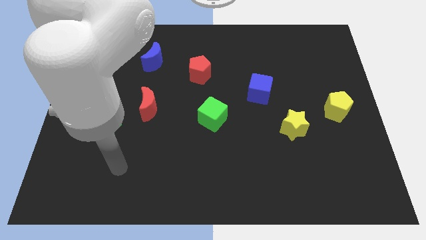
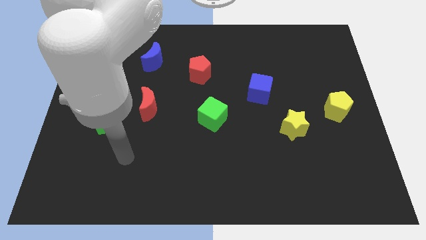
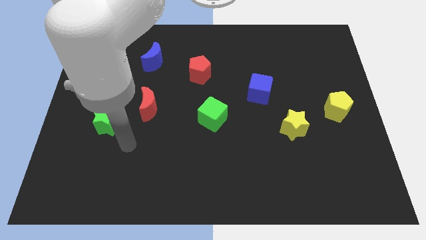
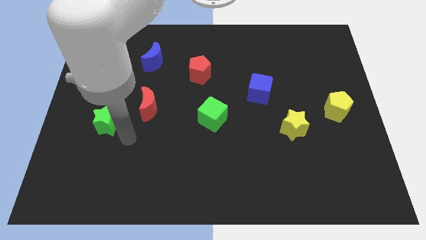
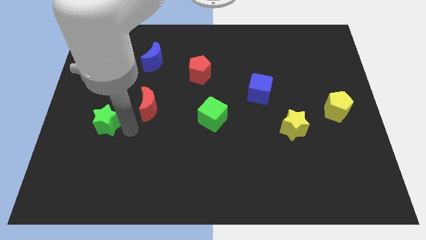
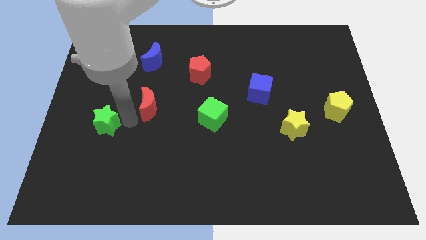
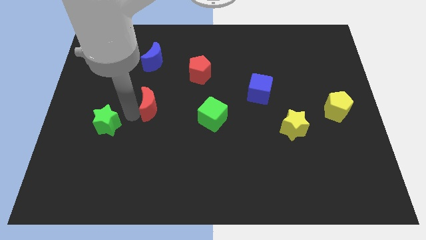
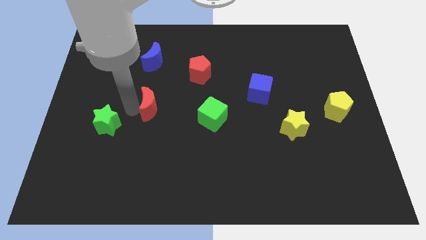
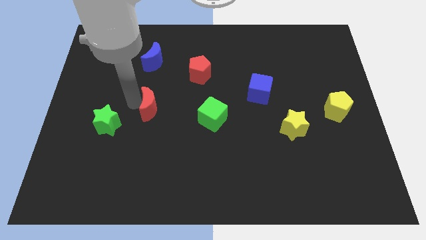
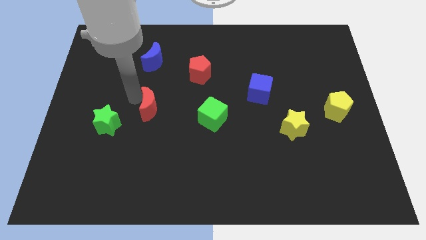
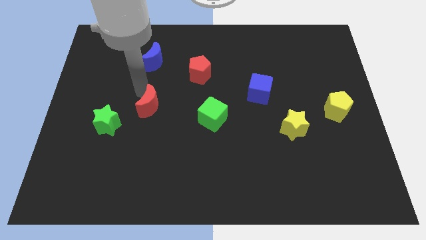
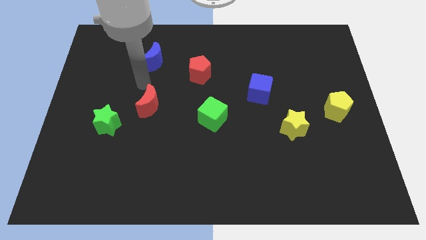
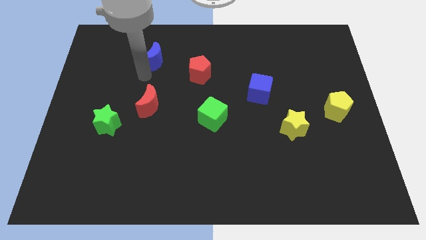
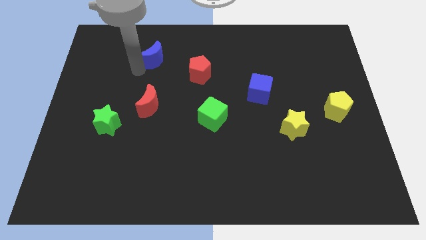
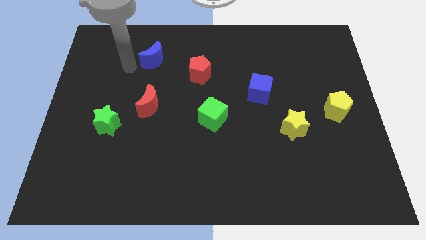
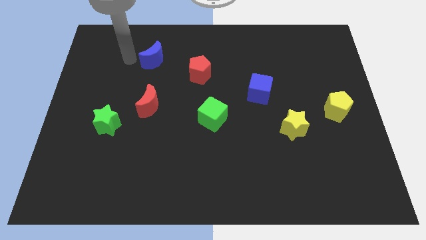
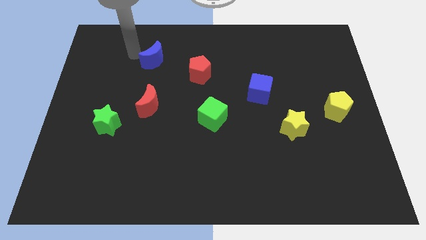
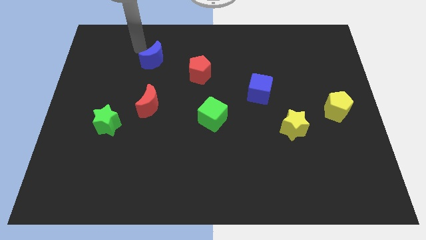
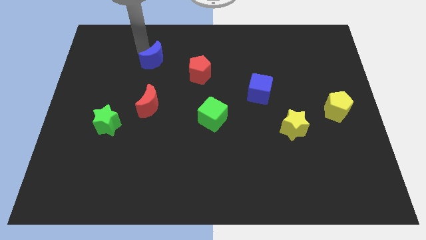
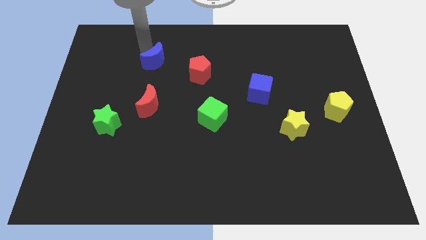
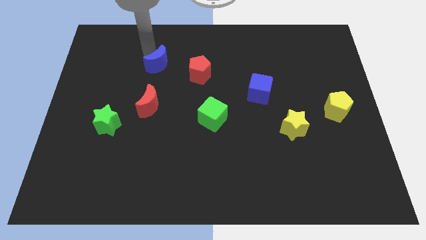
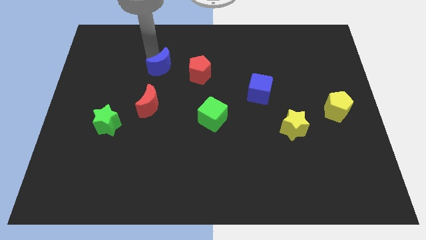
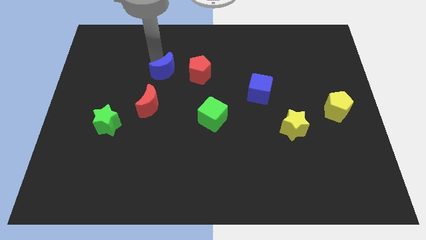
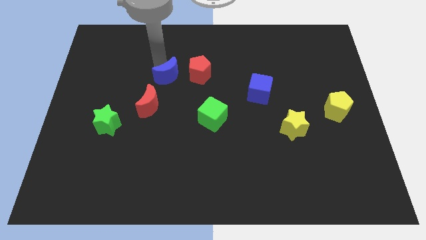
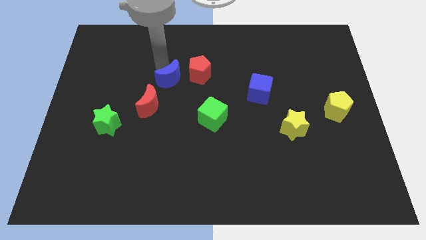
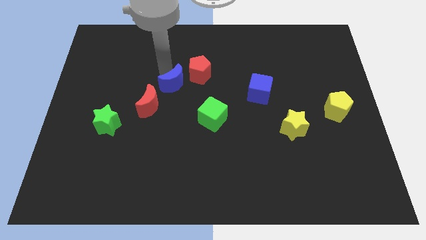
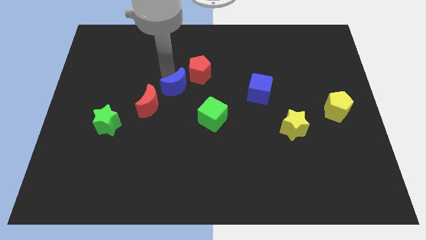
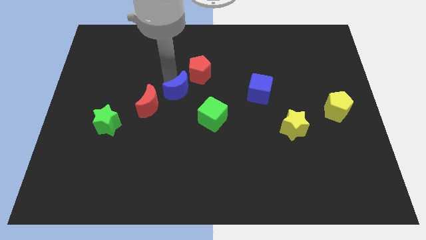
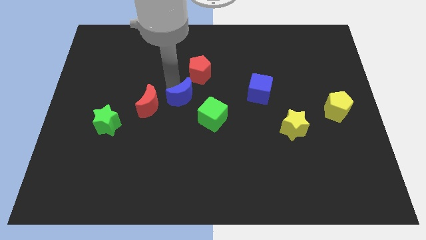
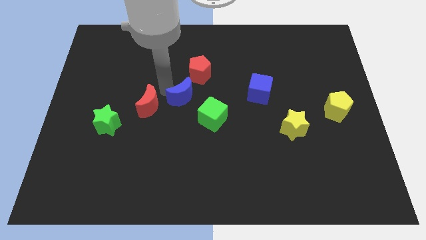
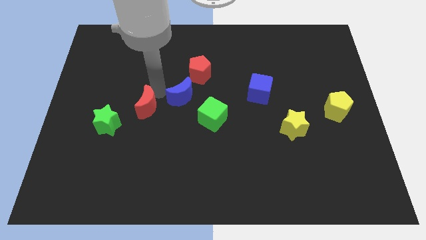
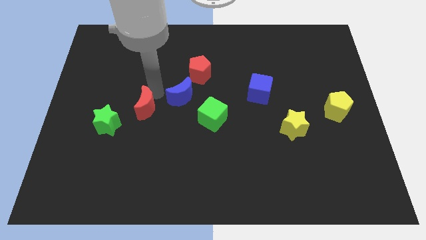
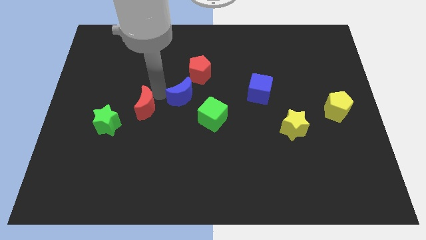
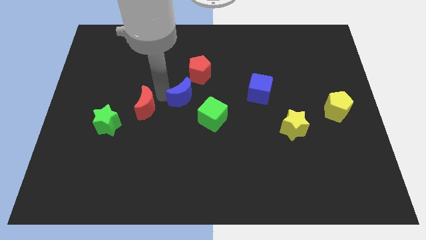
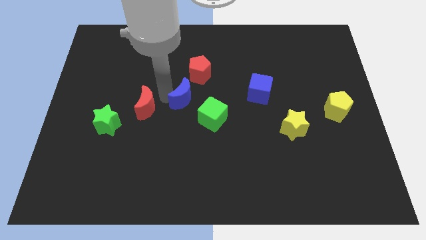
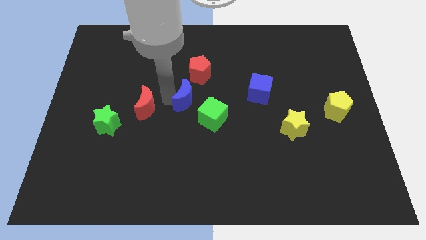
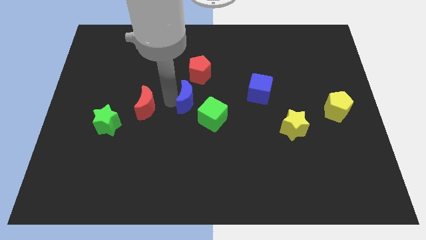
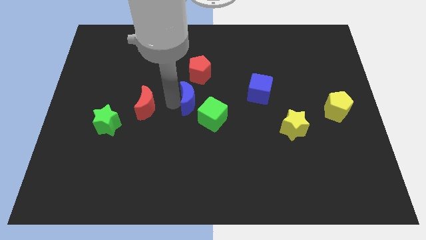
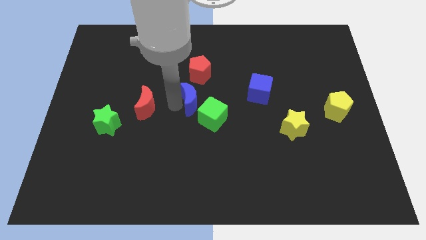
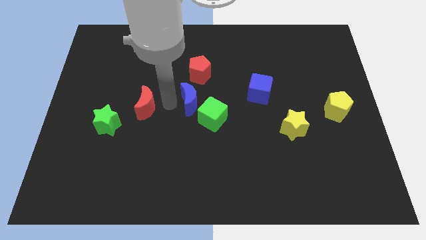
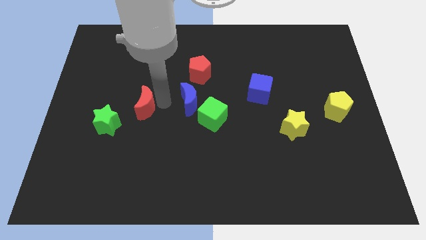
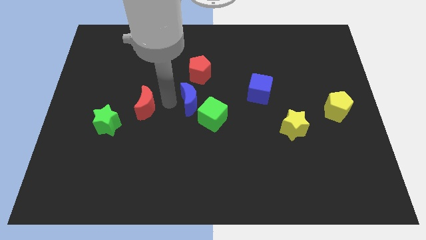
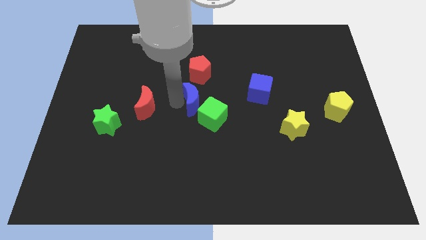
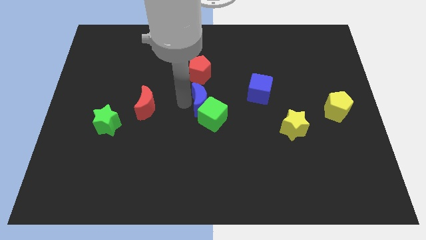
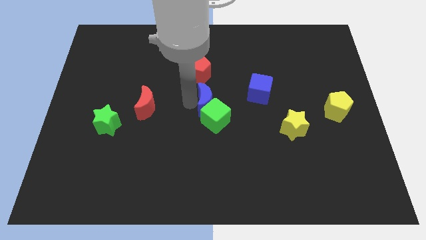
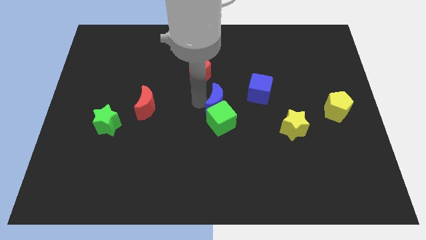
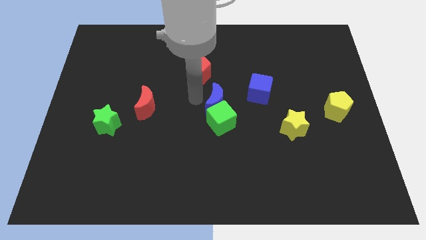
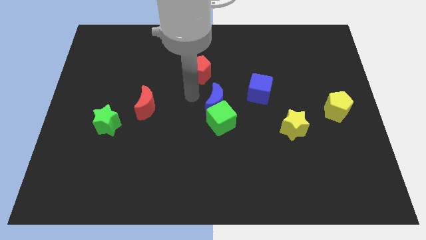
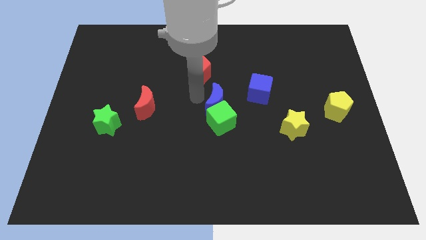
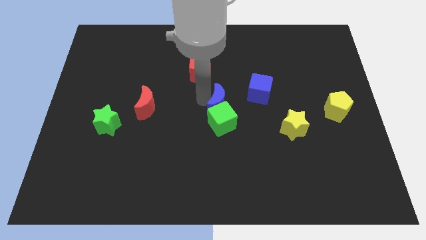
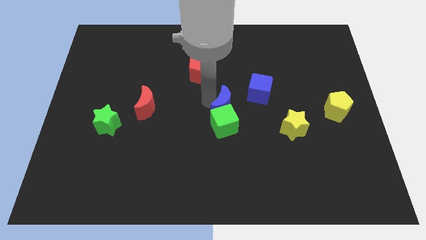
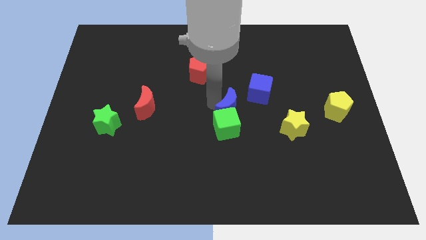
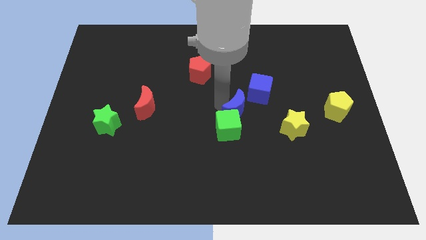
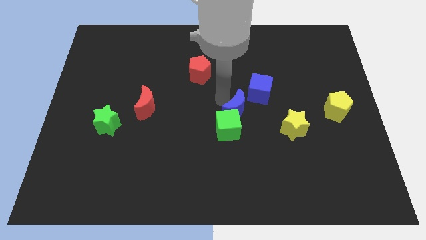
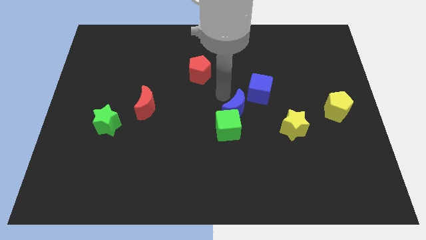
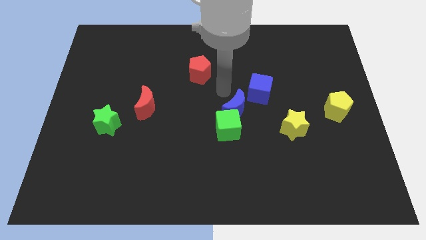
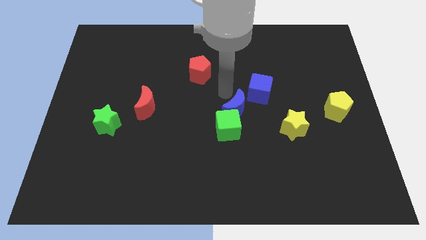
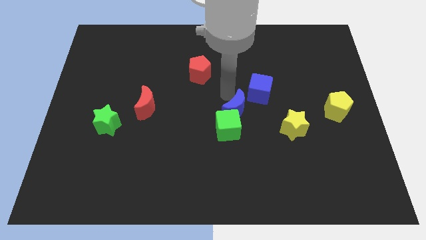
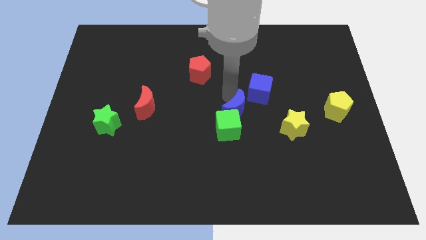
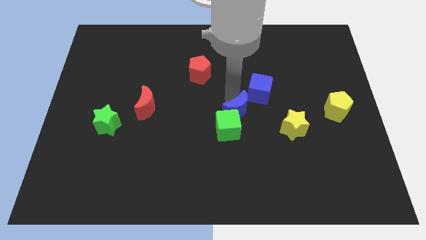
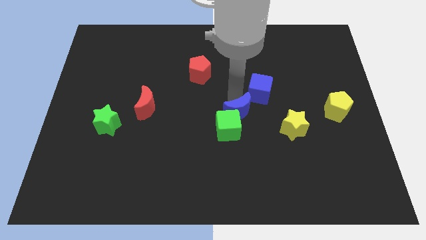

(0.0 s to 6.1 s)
slide the blue moon left of the yellow star

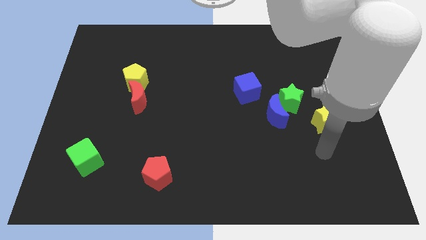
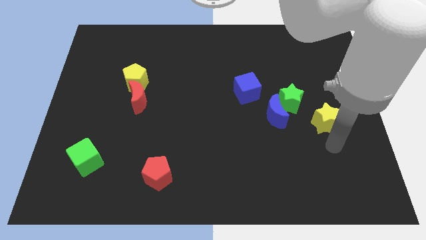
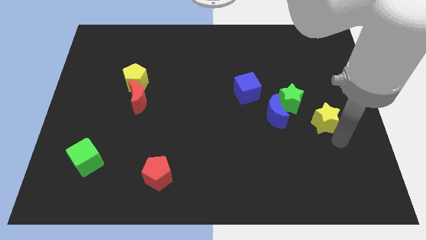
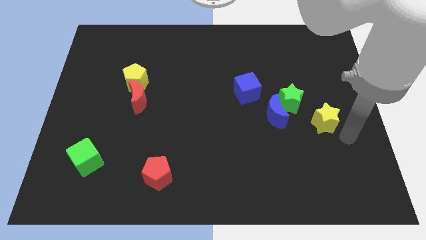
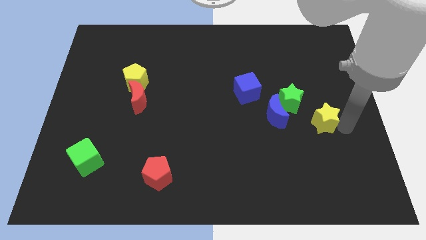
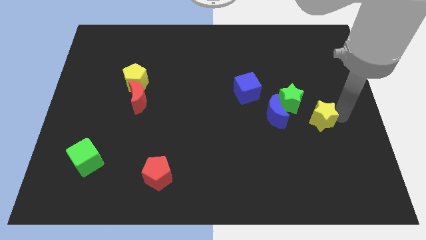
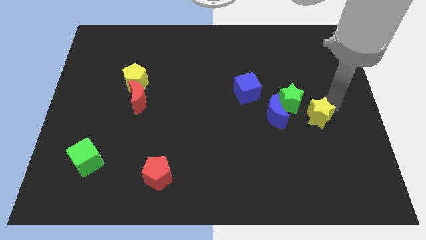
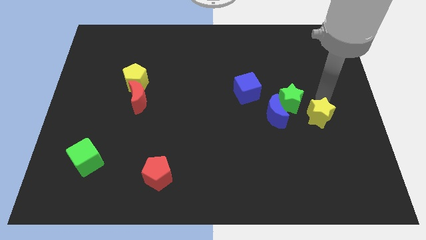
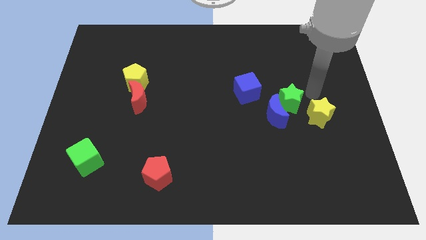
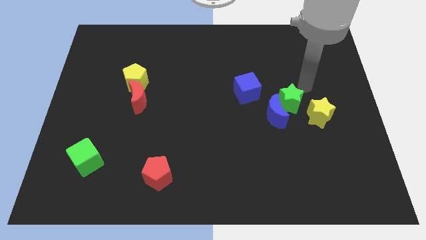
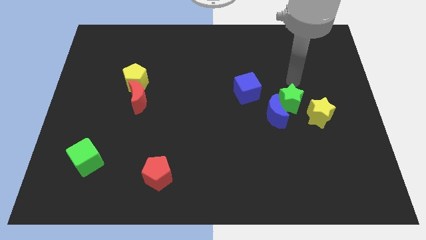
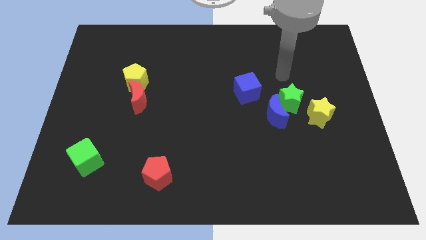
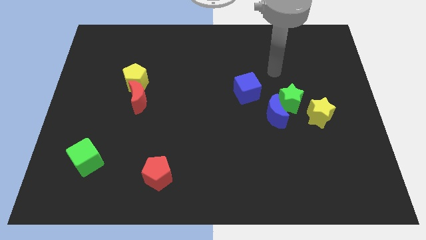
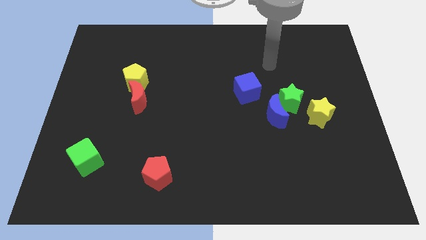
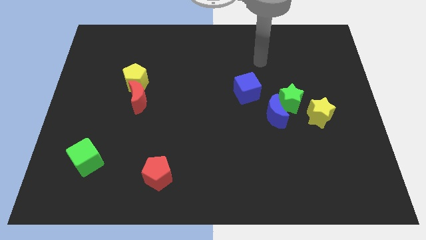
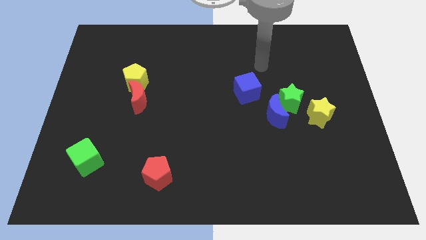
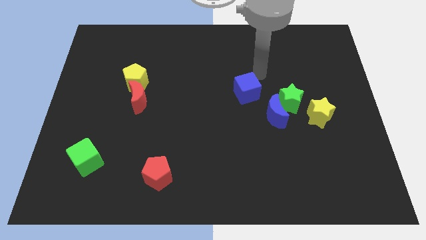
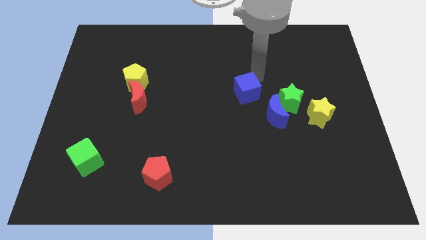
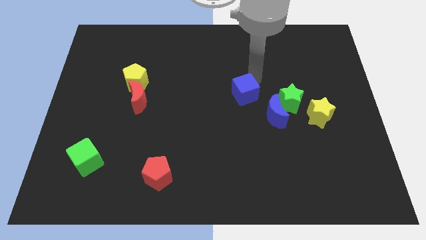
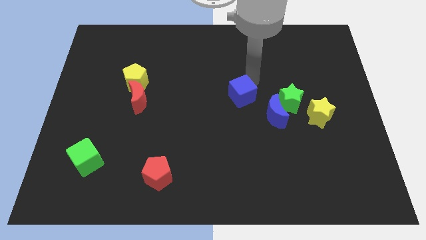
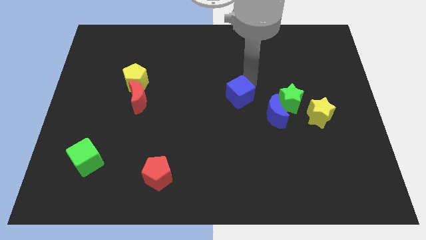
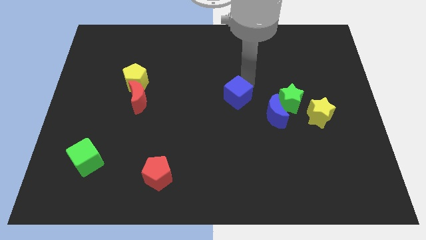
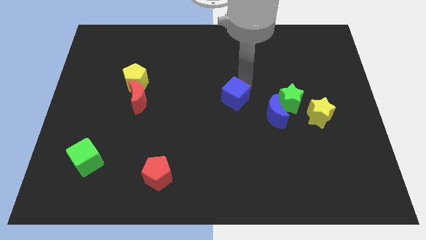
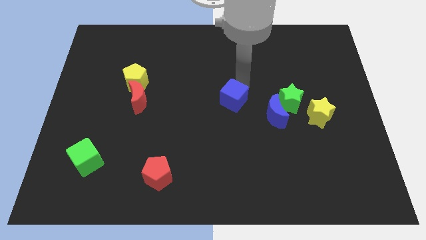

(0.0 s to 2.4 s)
push the blue cube to the left side of the blue moon

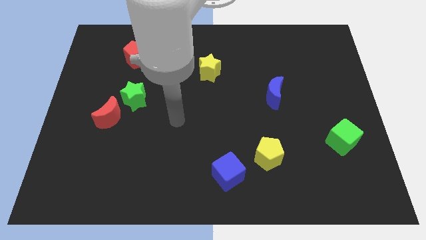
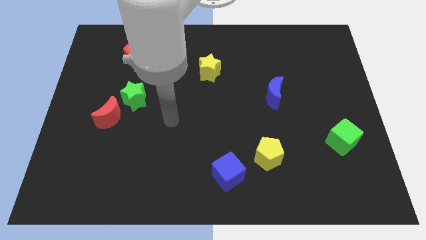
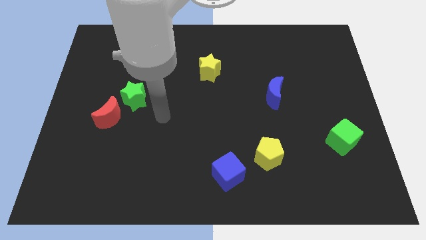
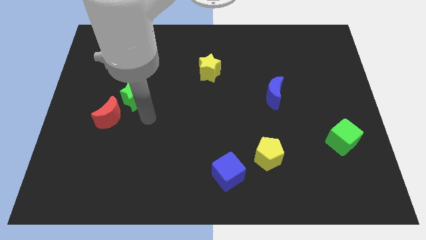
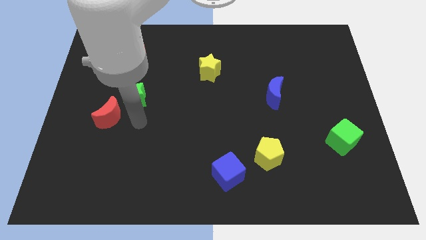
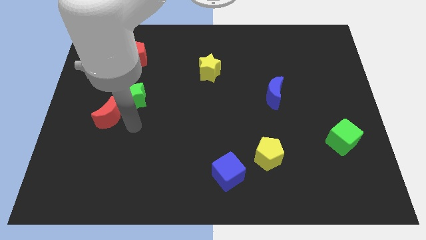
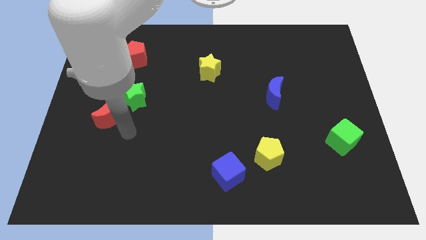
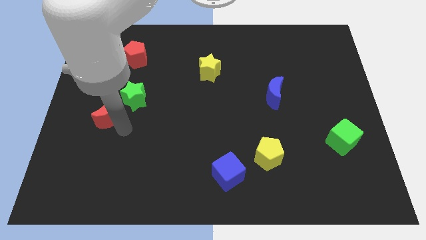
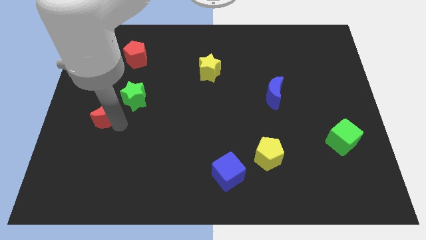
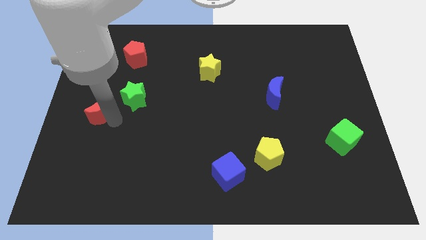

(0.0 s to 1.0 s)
push the red moon to the left of the green star
